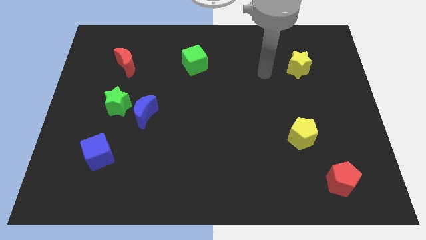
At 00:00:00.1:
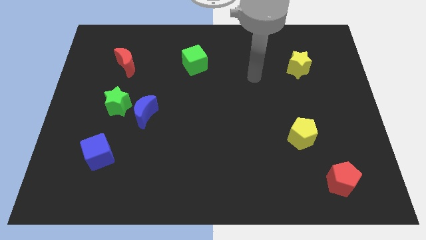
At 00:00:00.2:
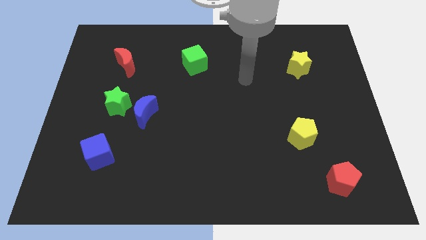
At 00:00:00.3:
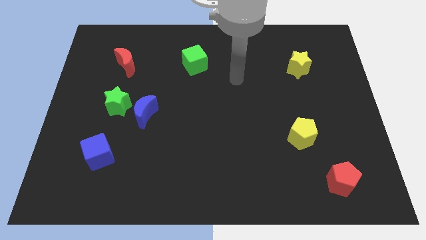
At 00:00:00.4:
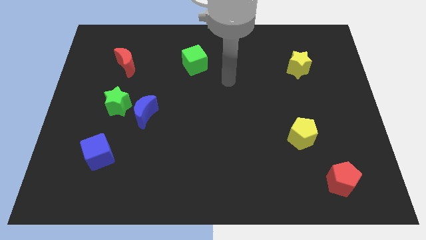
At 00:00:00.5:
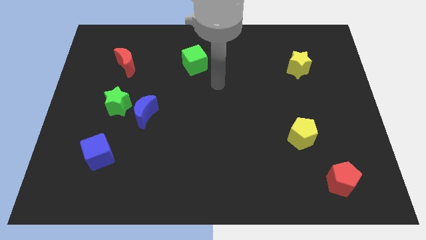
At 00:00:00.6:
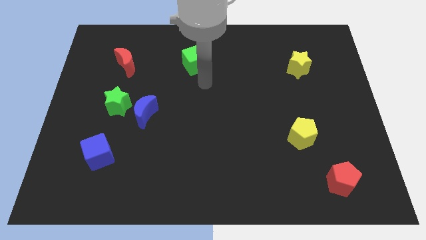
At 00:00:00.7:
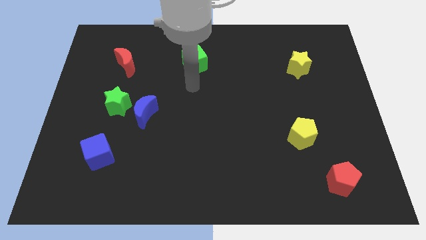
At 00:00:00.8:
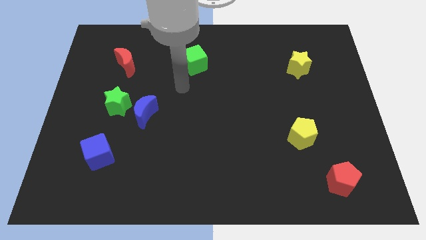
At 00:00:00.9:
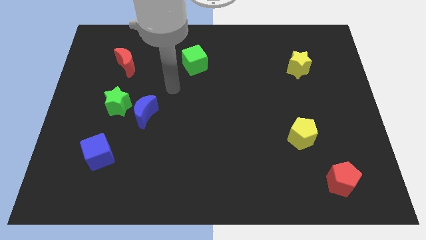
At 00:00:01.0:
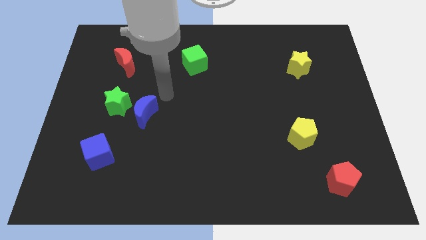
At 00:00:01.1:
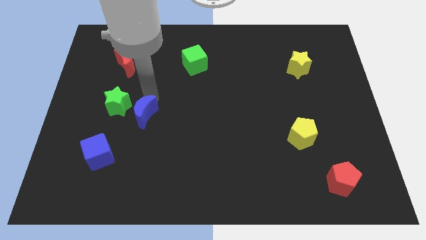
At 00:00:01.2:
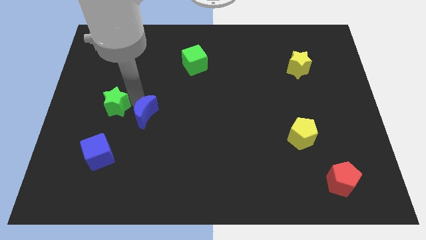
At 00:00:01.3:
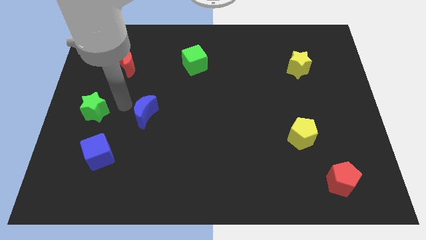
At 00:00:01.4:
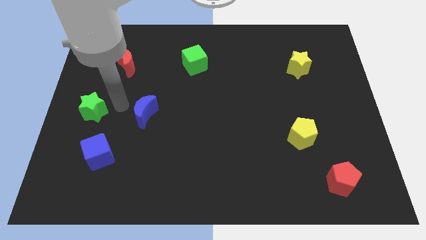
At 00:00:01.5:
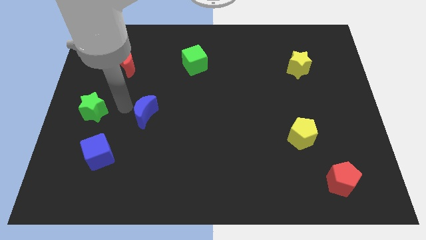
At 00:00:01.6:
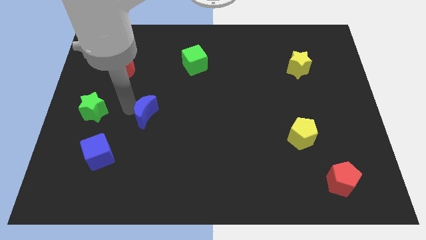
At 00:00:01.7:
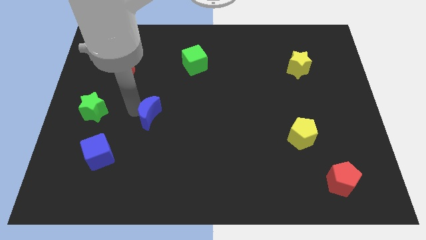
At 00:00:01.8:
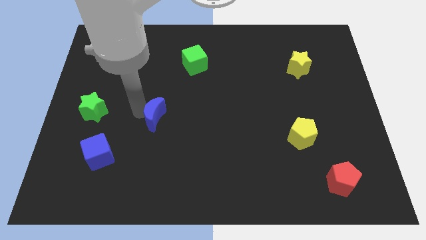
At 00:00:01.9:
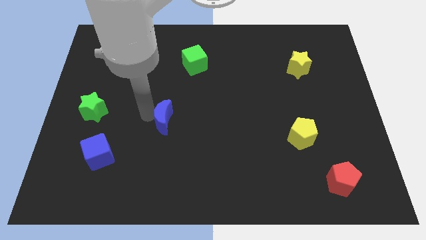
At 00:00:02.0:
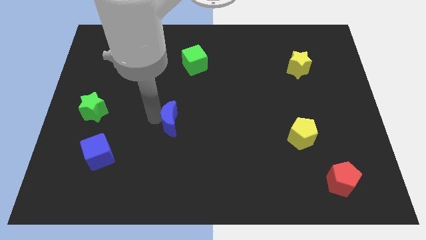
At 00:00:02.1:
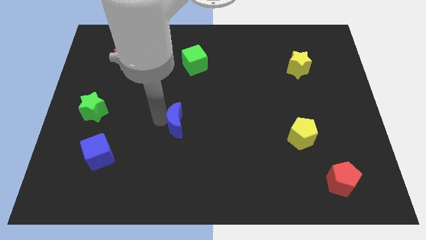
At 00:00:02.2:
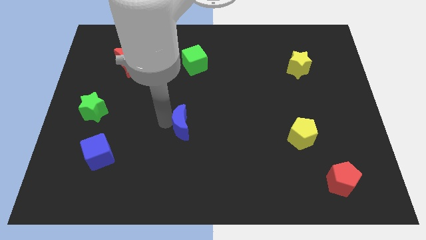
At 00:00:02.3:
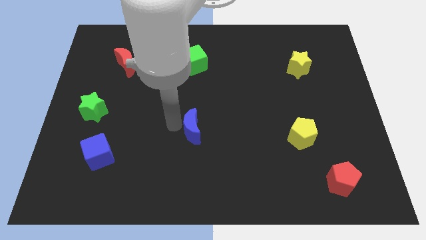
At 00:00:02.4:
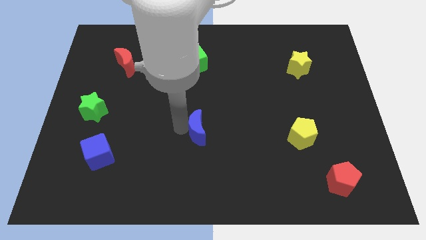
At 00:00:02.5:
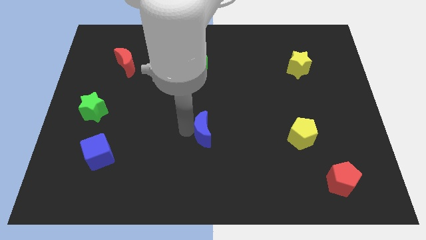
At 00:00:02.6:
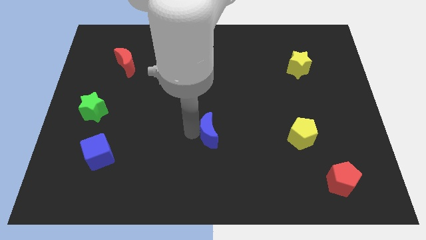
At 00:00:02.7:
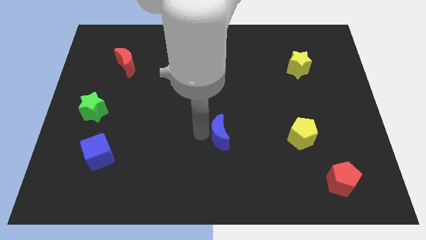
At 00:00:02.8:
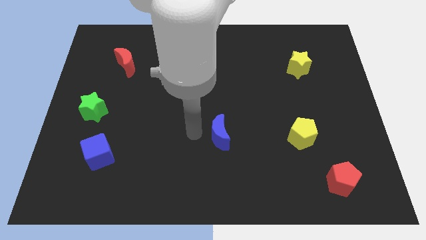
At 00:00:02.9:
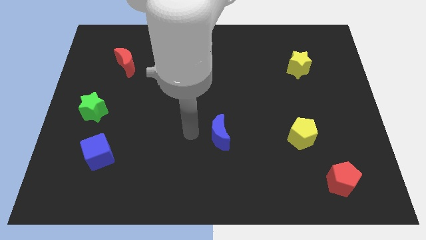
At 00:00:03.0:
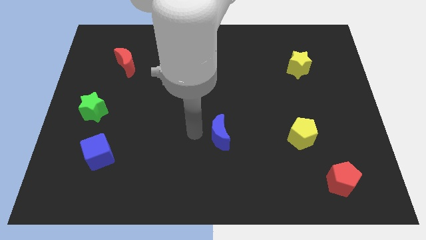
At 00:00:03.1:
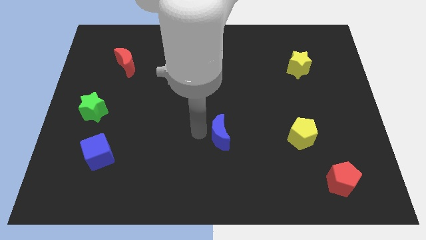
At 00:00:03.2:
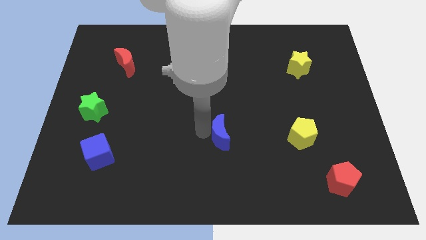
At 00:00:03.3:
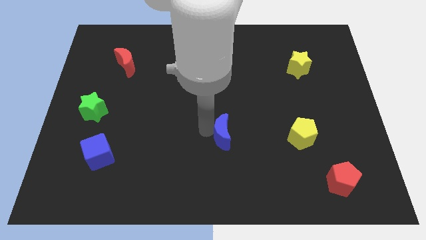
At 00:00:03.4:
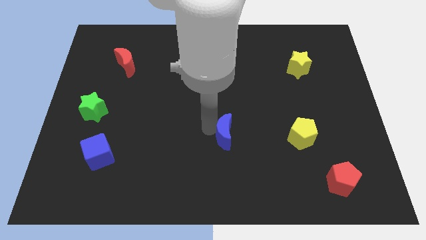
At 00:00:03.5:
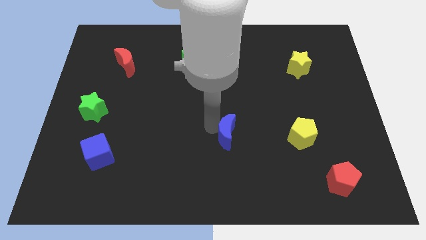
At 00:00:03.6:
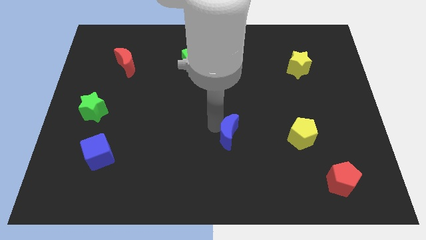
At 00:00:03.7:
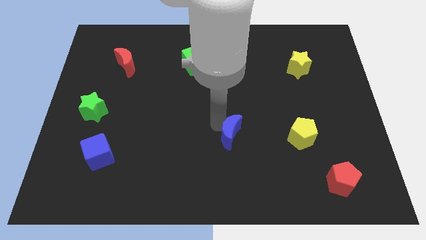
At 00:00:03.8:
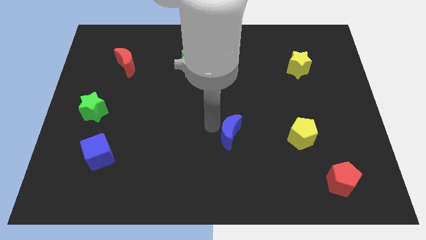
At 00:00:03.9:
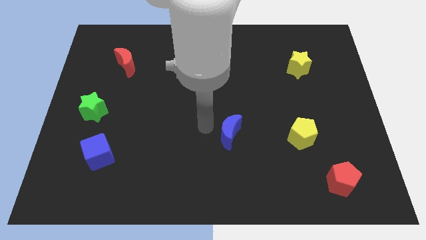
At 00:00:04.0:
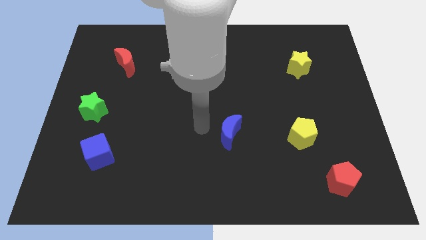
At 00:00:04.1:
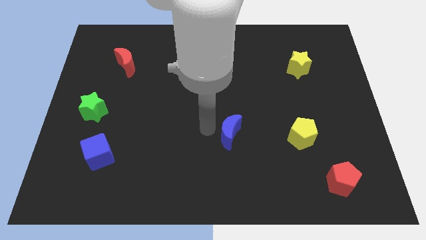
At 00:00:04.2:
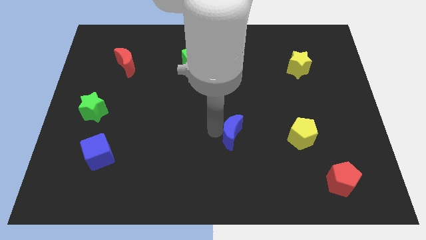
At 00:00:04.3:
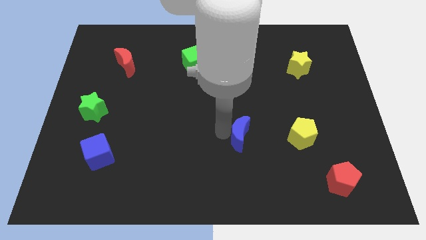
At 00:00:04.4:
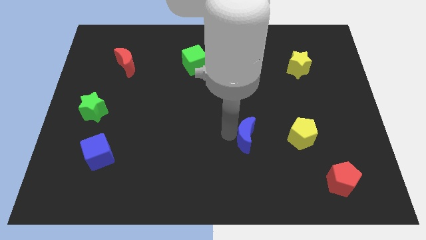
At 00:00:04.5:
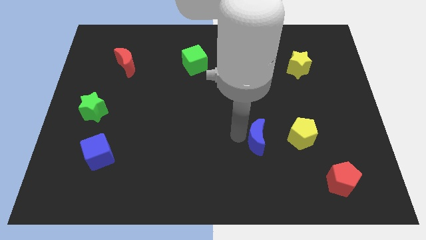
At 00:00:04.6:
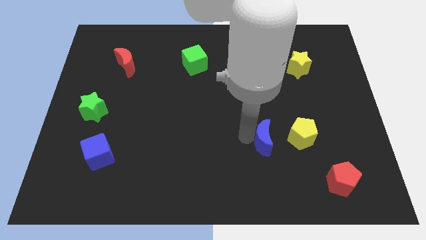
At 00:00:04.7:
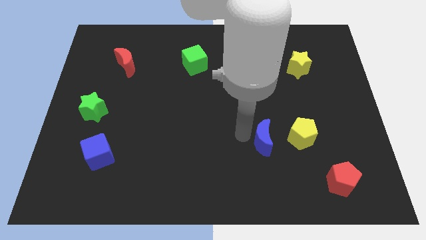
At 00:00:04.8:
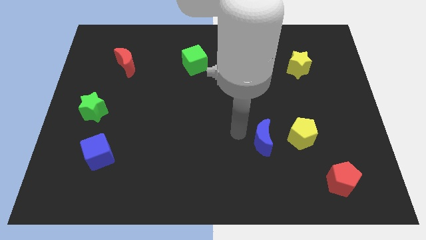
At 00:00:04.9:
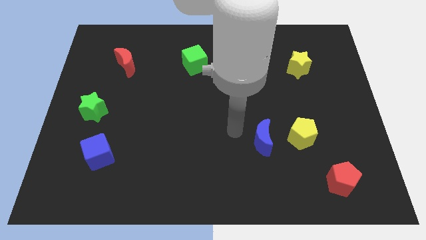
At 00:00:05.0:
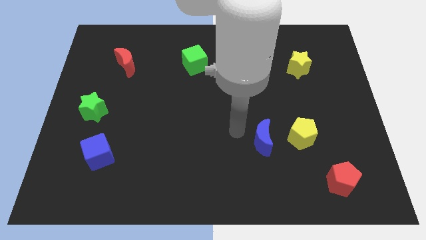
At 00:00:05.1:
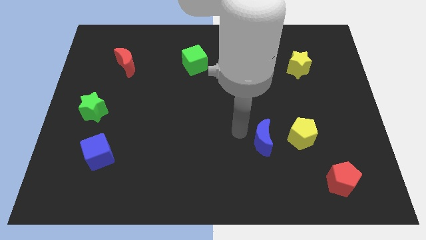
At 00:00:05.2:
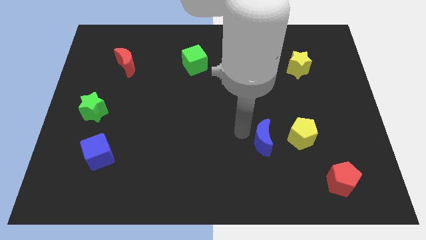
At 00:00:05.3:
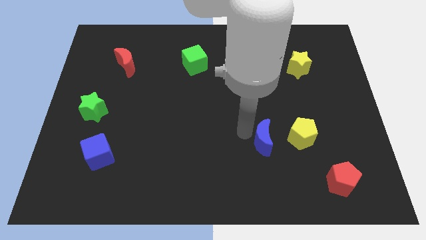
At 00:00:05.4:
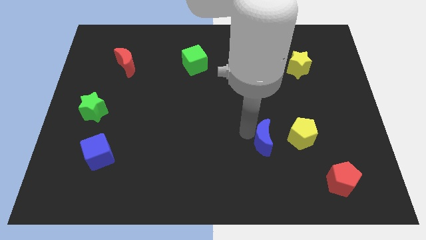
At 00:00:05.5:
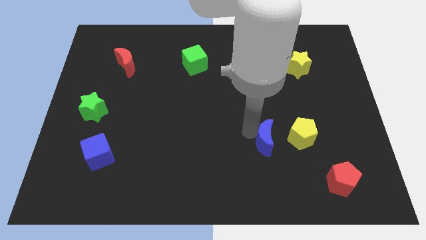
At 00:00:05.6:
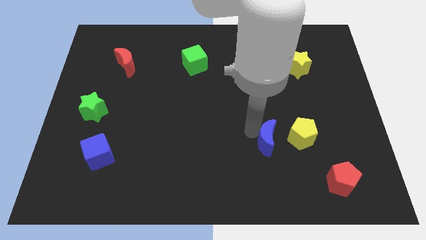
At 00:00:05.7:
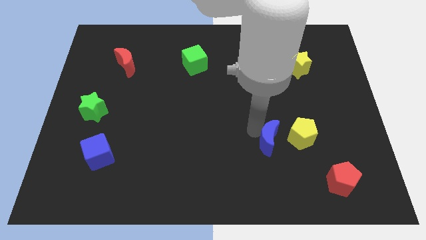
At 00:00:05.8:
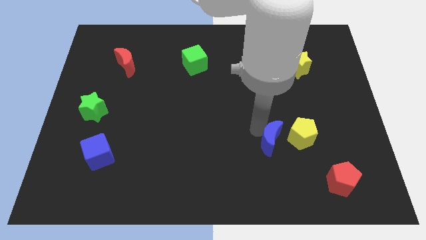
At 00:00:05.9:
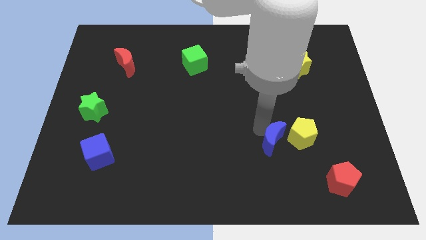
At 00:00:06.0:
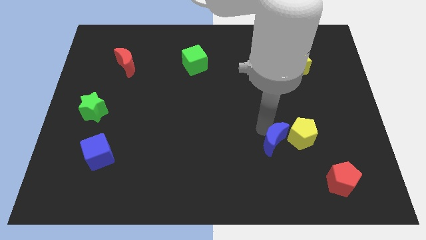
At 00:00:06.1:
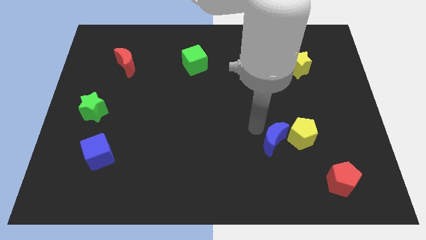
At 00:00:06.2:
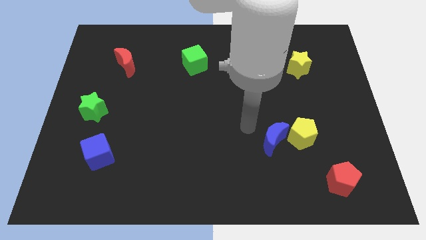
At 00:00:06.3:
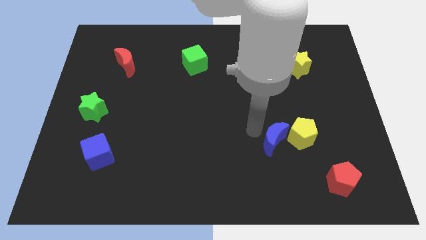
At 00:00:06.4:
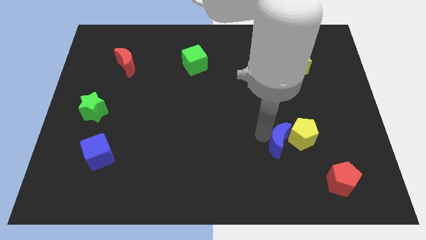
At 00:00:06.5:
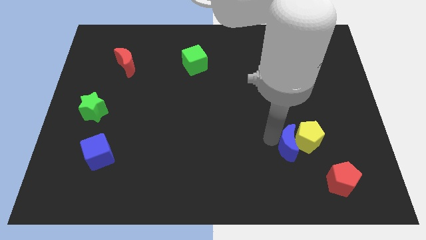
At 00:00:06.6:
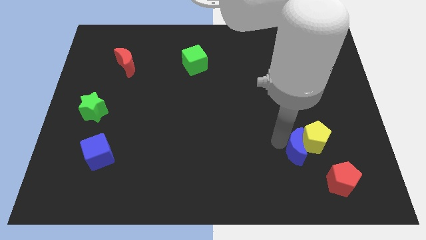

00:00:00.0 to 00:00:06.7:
put the blue moon to the top left side of the red pentagon

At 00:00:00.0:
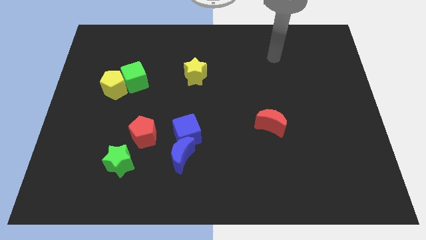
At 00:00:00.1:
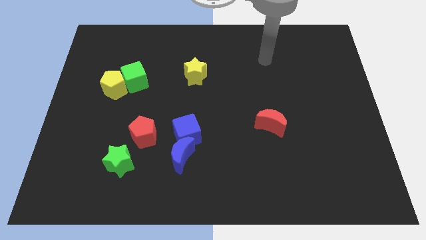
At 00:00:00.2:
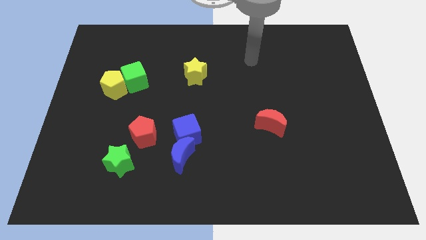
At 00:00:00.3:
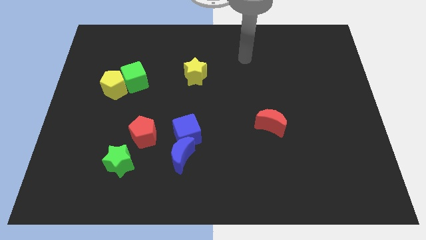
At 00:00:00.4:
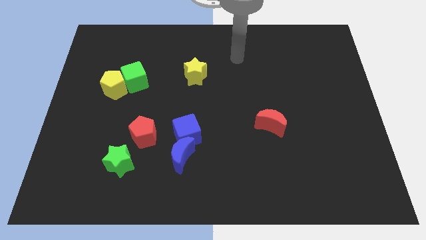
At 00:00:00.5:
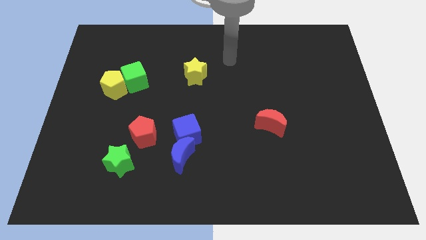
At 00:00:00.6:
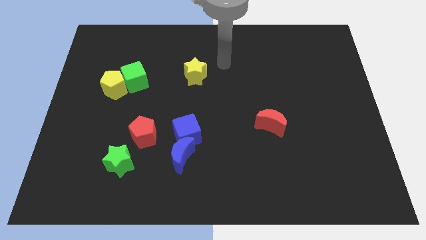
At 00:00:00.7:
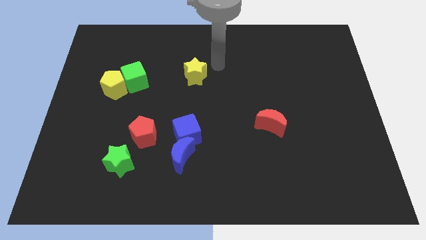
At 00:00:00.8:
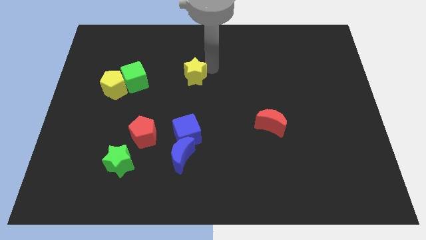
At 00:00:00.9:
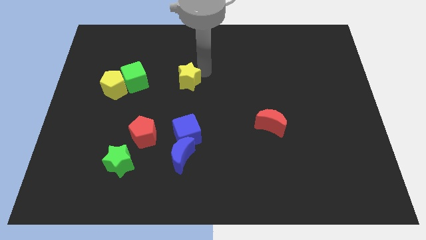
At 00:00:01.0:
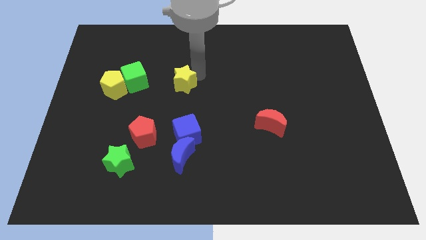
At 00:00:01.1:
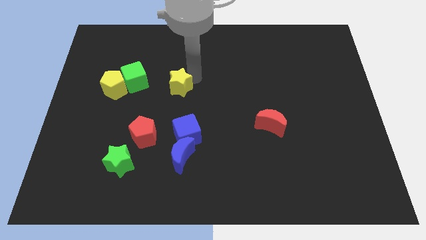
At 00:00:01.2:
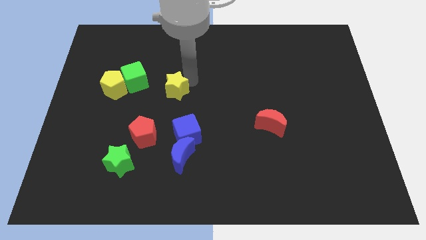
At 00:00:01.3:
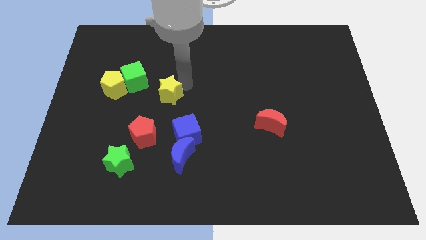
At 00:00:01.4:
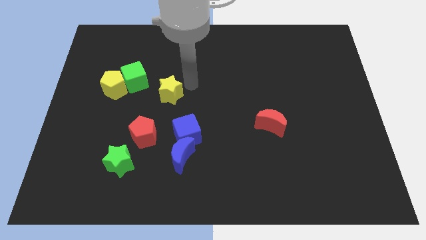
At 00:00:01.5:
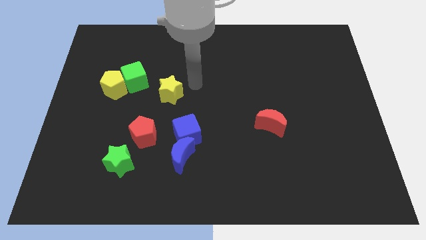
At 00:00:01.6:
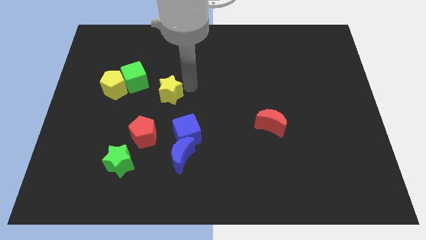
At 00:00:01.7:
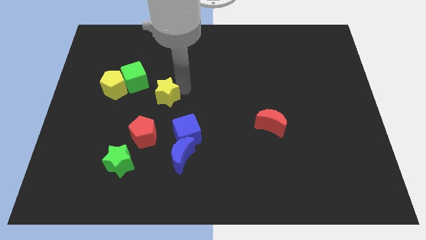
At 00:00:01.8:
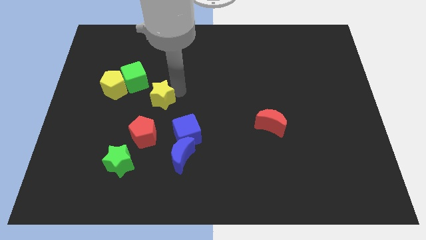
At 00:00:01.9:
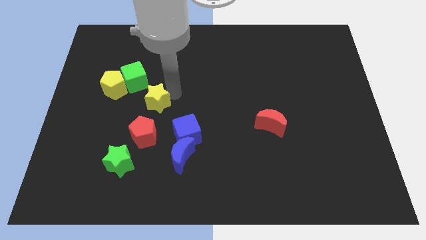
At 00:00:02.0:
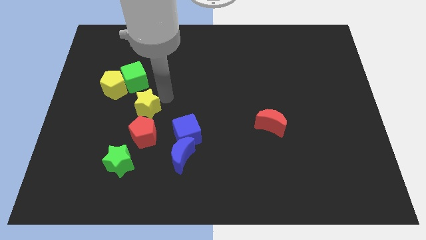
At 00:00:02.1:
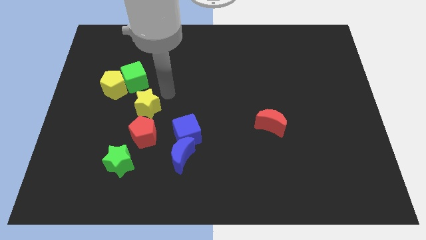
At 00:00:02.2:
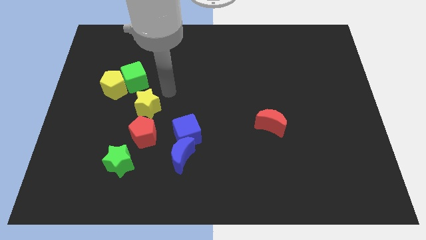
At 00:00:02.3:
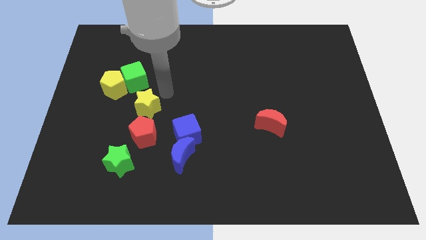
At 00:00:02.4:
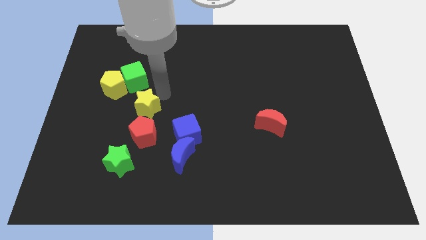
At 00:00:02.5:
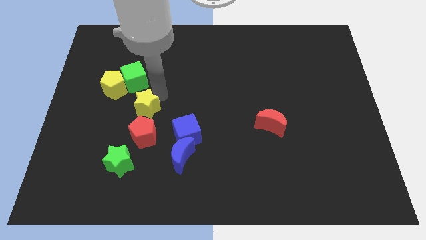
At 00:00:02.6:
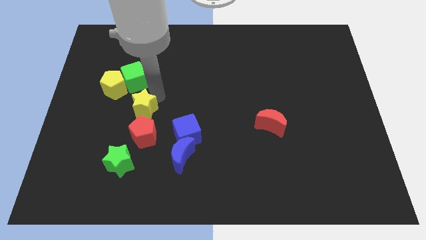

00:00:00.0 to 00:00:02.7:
move the yellow star to the top of the green star
